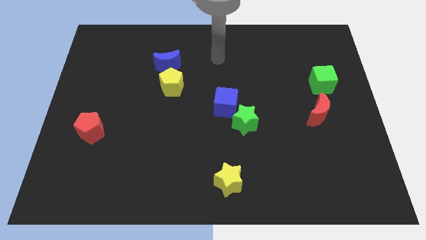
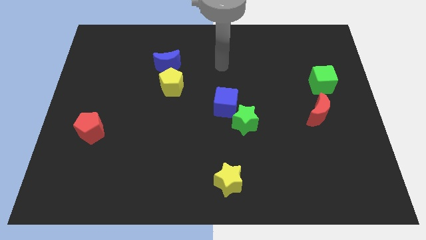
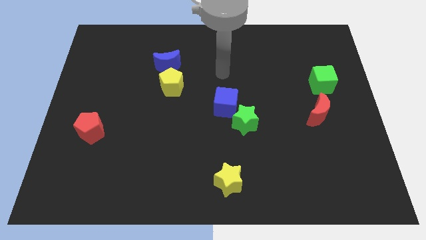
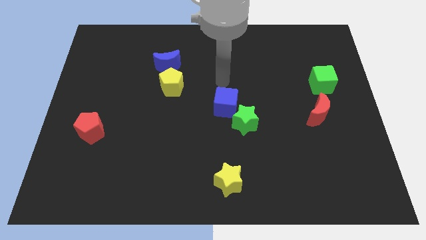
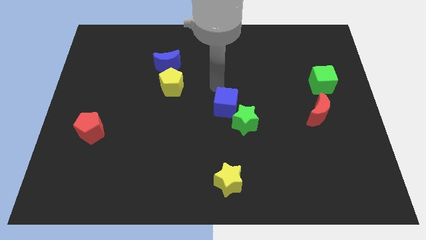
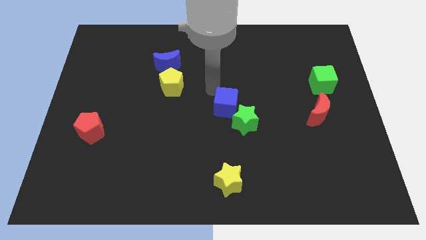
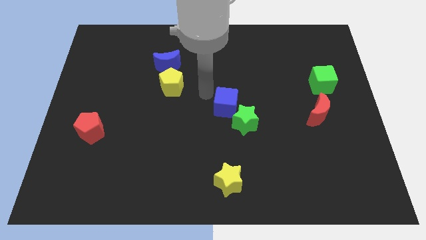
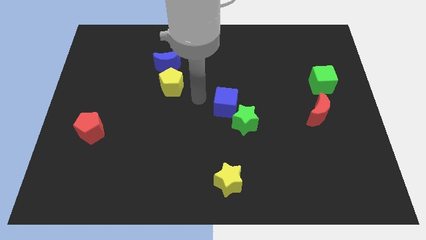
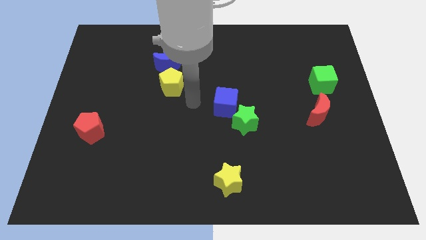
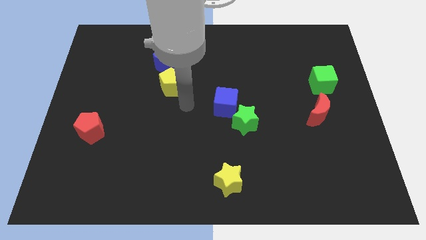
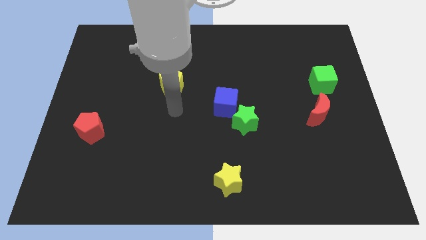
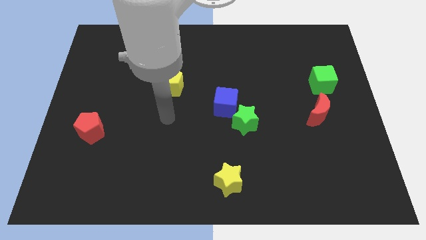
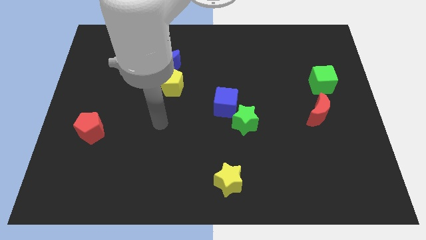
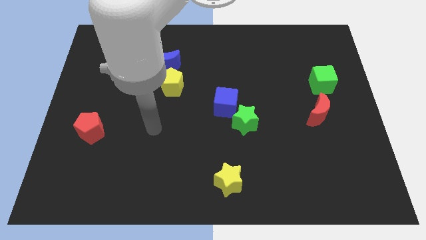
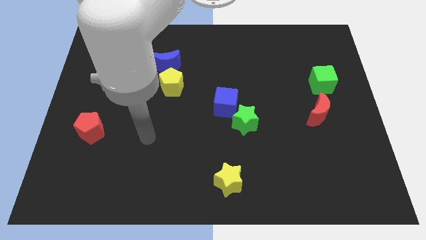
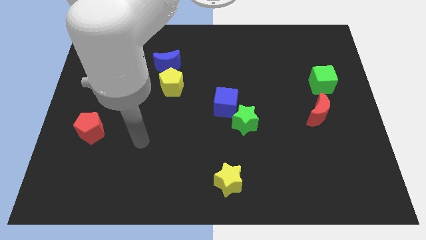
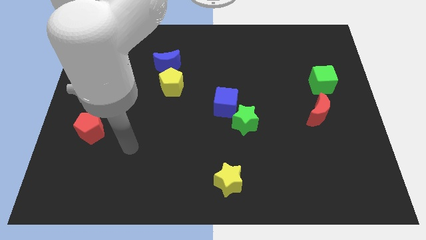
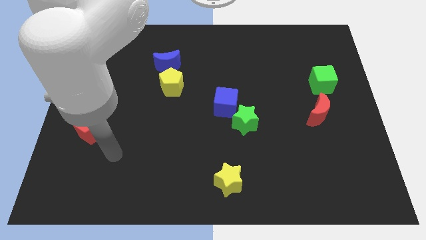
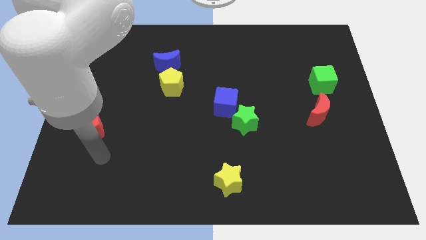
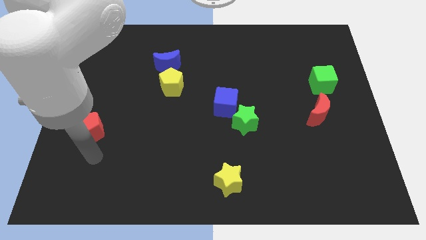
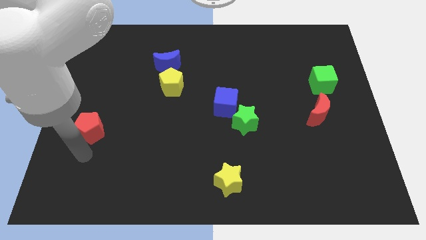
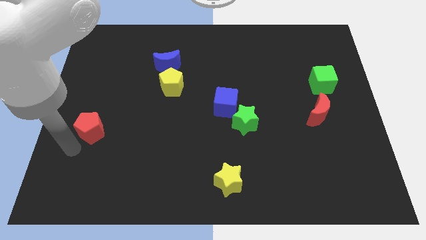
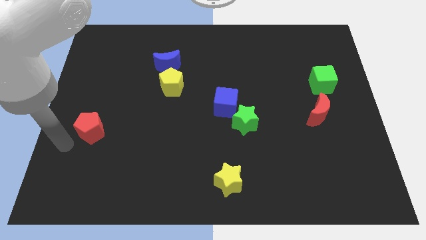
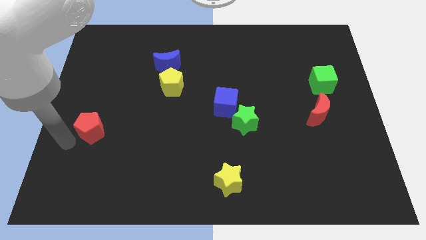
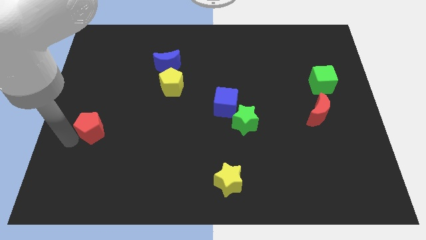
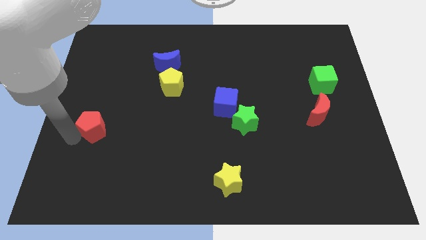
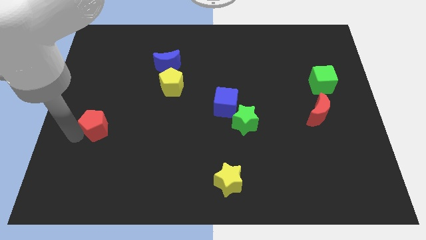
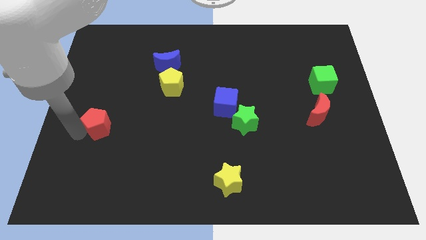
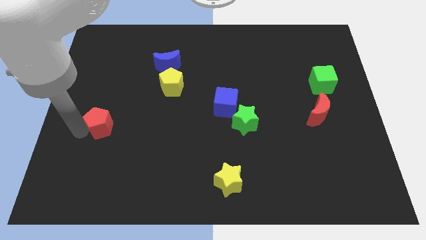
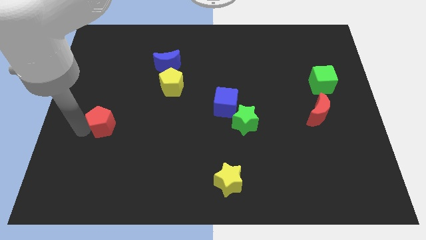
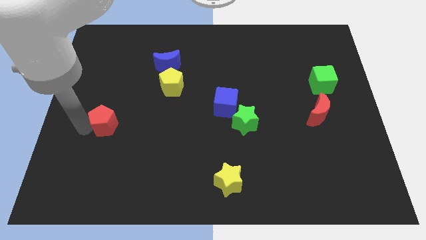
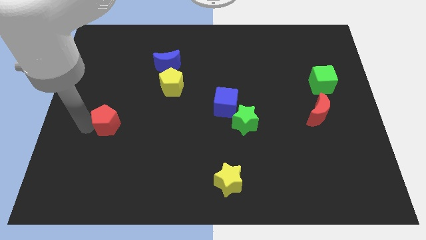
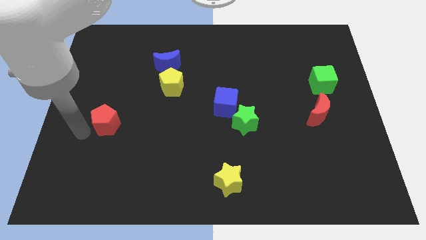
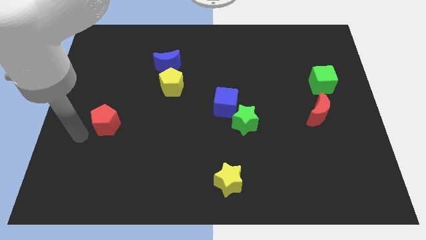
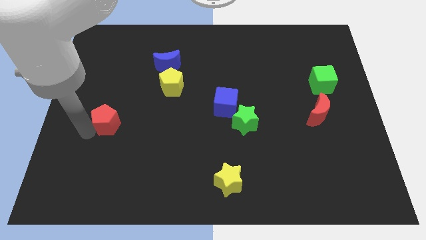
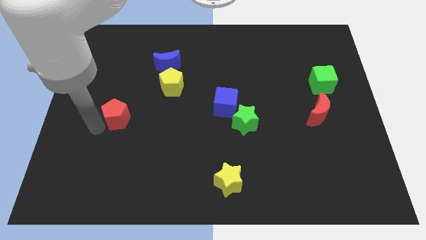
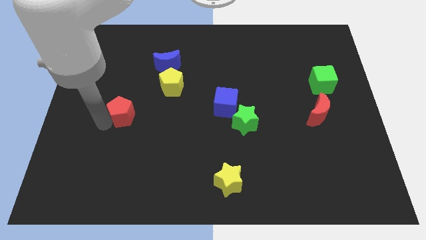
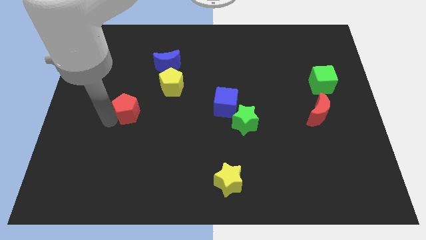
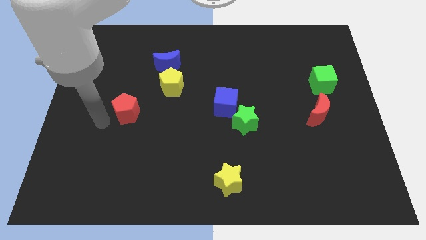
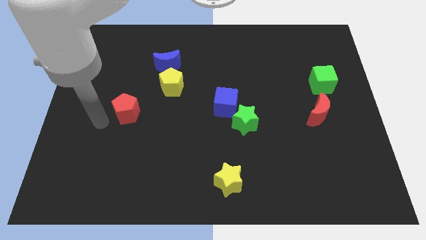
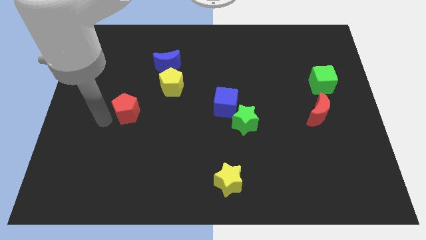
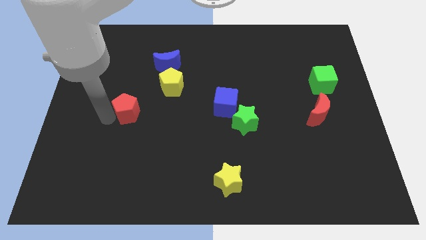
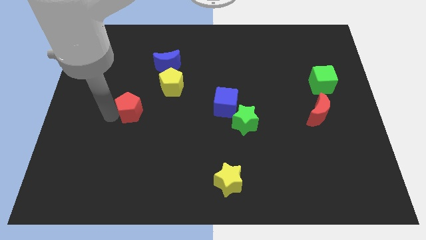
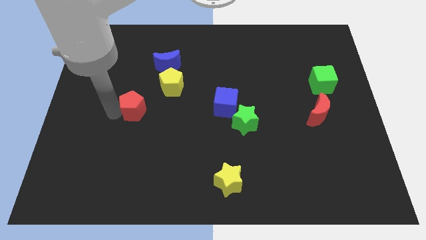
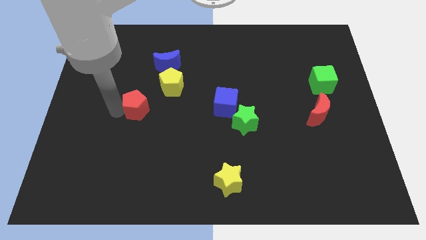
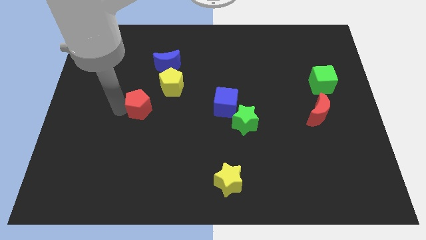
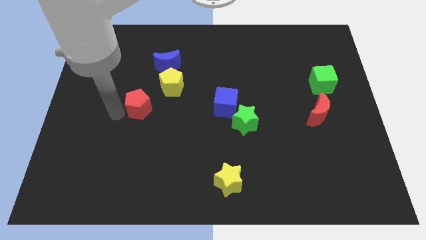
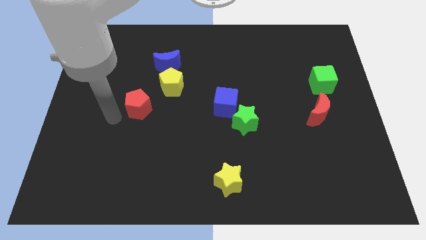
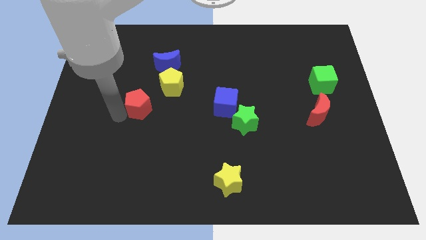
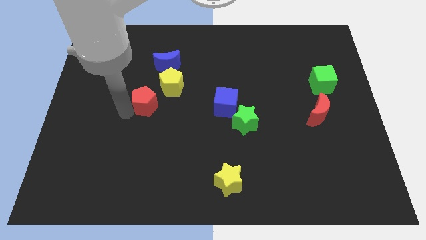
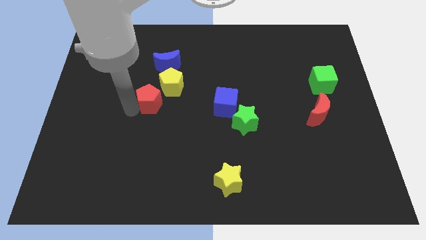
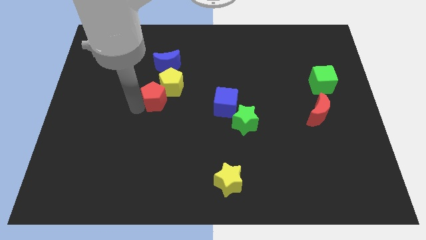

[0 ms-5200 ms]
move the red pentagon towards the yellow pentagon

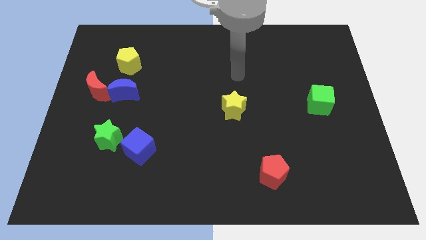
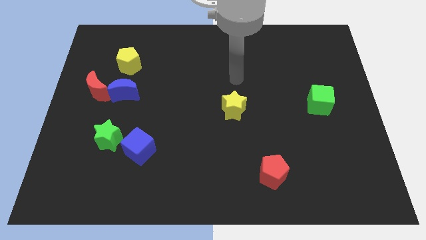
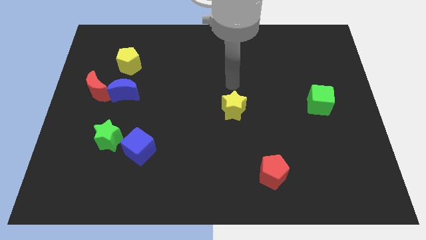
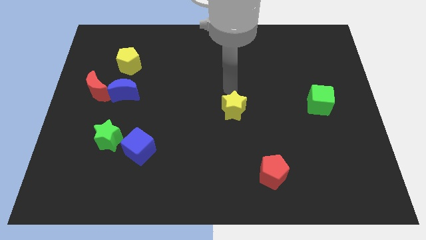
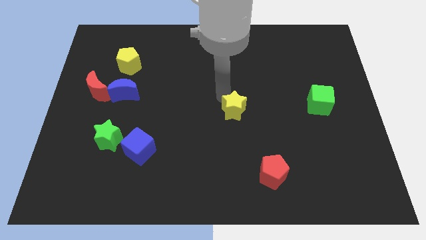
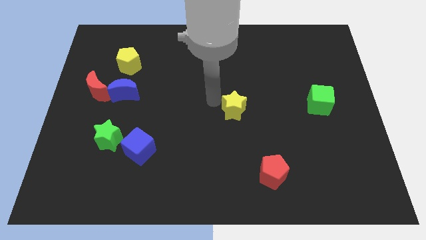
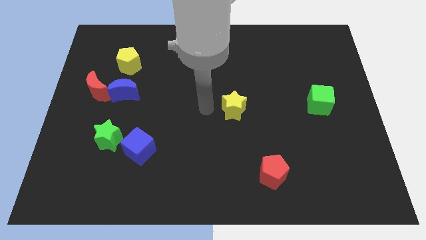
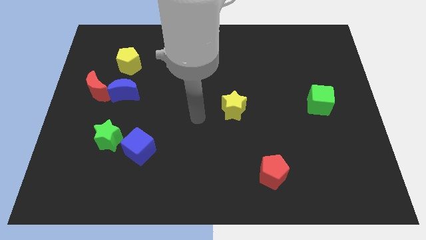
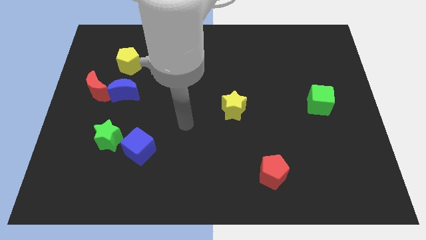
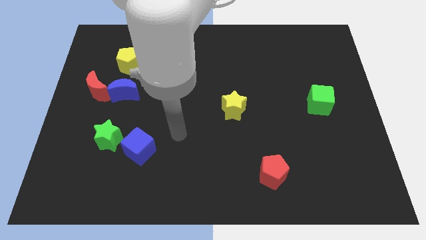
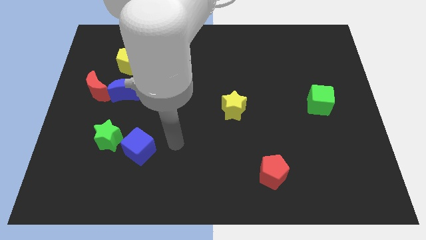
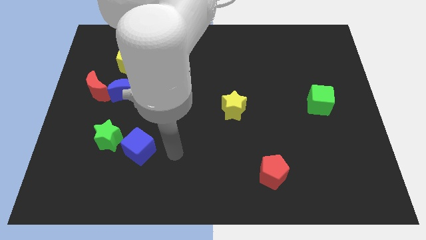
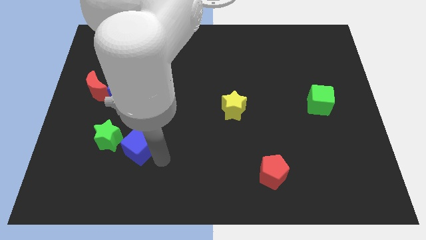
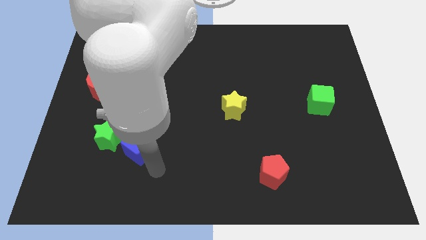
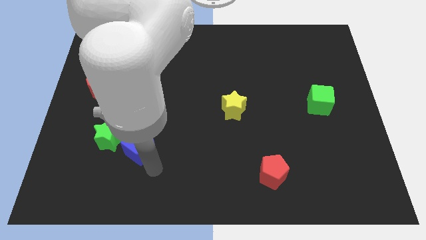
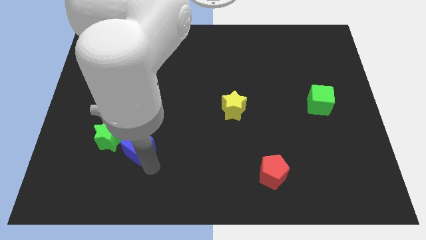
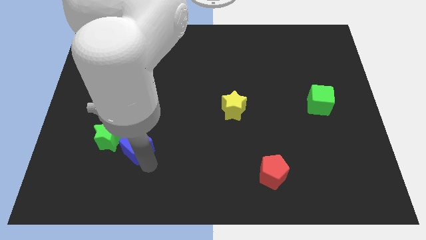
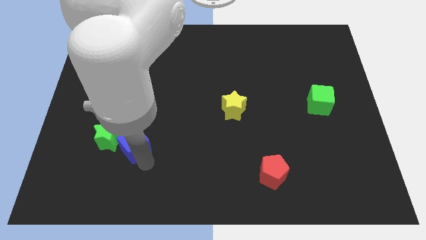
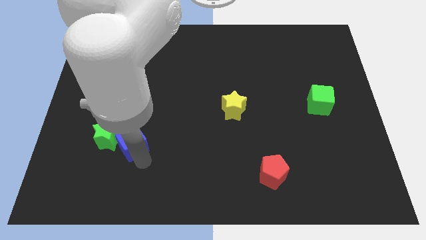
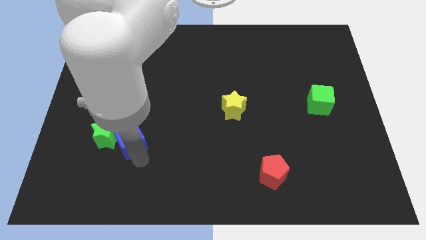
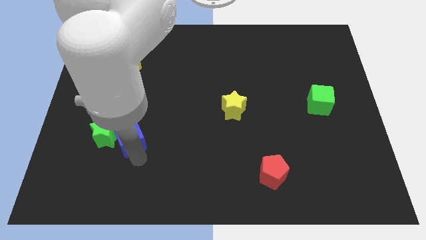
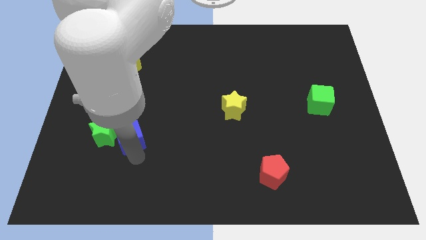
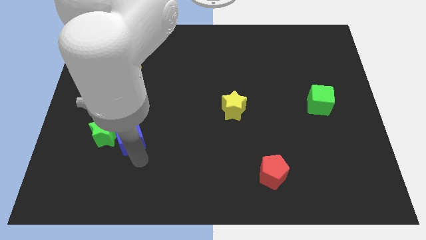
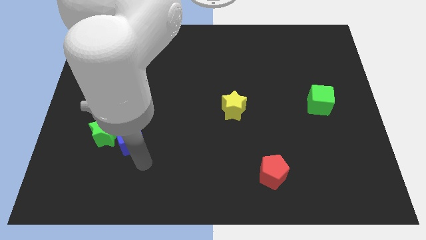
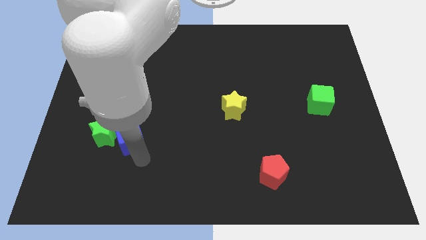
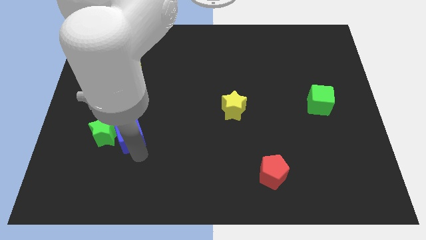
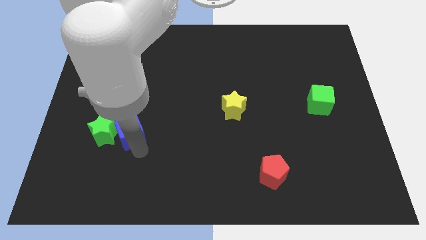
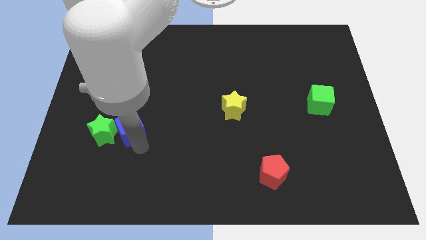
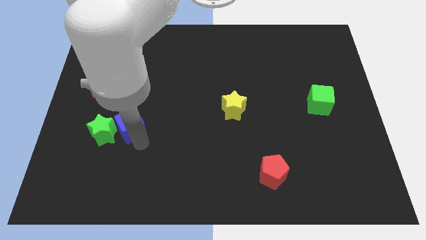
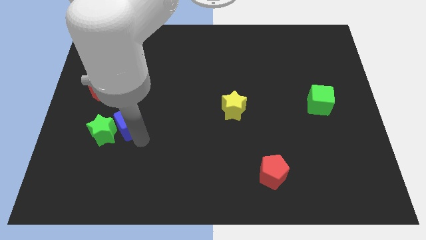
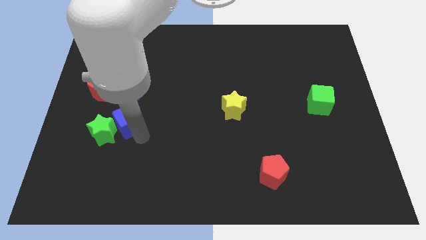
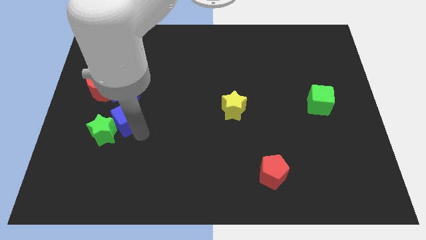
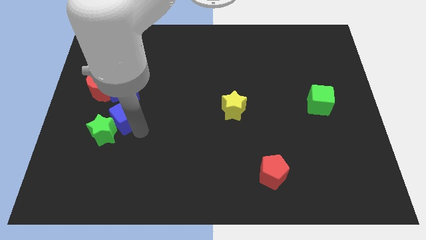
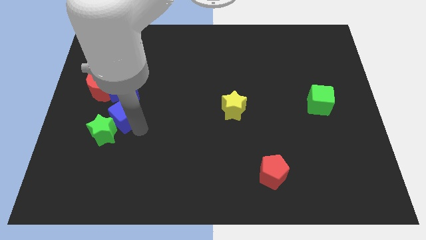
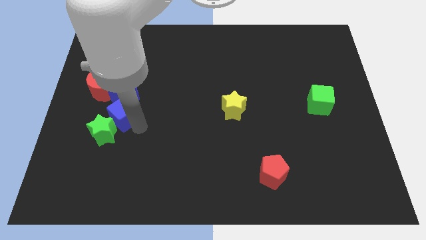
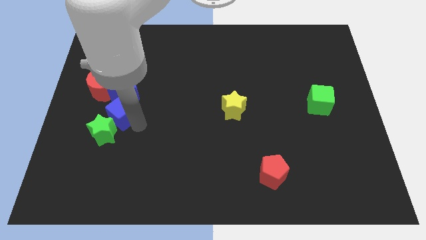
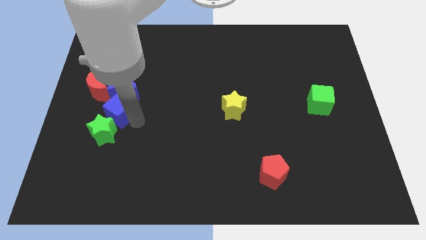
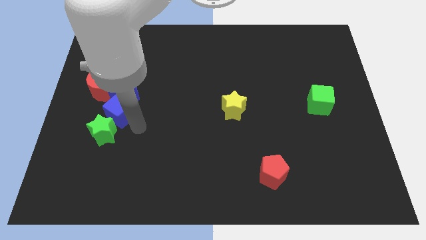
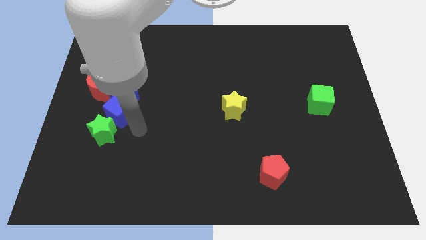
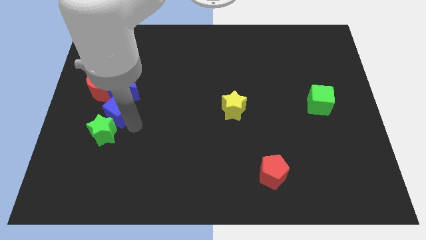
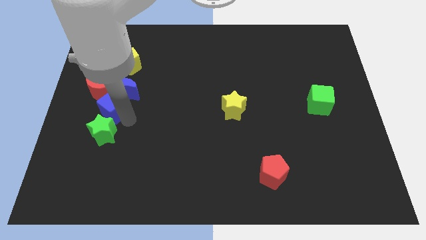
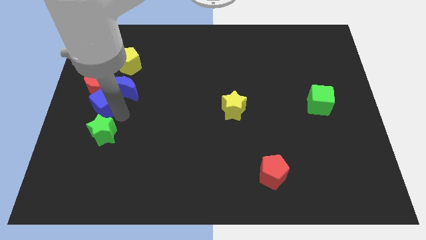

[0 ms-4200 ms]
push the blue cube next to the red moon
